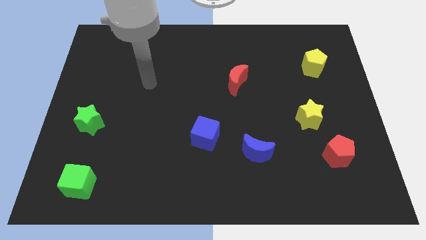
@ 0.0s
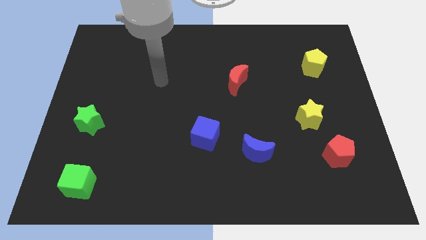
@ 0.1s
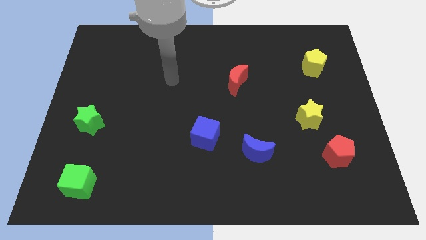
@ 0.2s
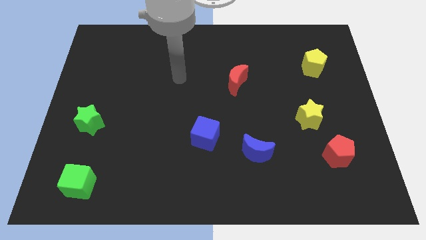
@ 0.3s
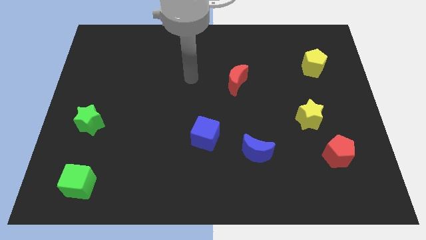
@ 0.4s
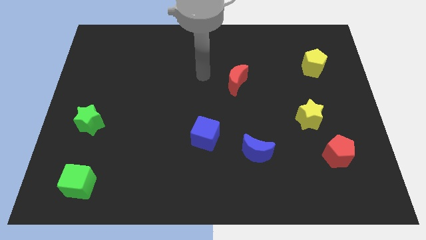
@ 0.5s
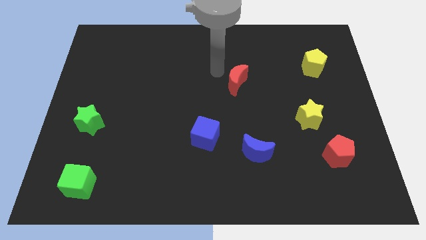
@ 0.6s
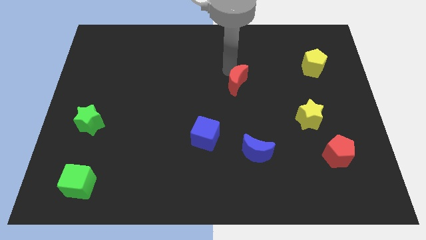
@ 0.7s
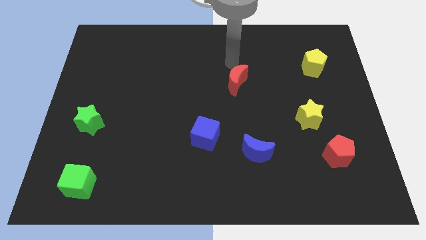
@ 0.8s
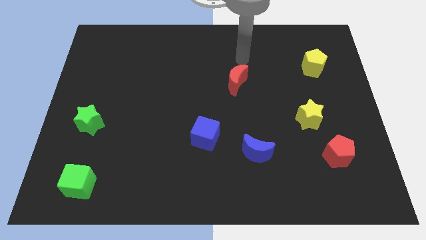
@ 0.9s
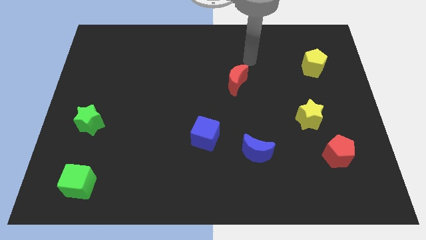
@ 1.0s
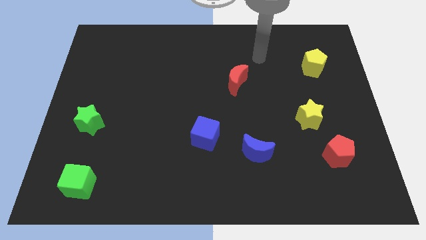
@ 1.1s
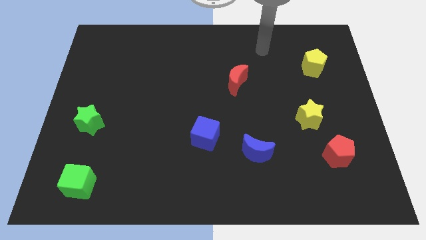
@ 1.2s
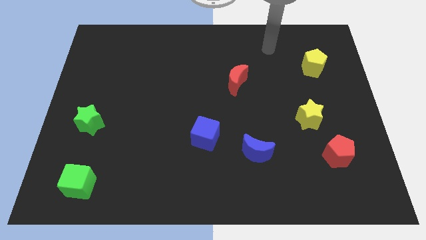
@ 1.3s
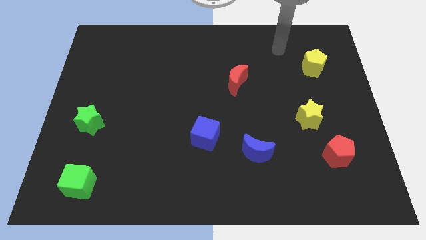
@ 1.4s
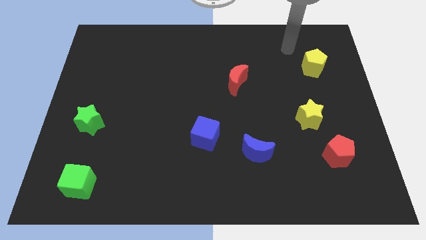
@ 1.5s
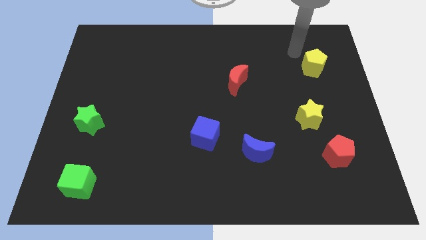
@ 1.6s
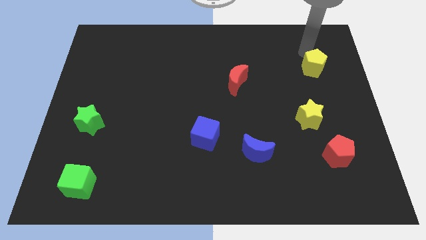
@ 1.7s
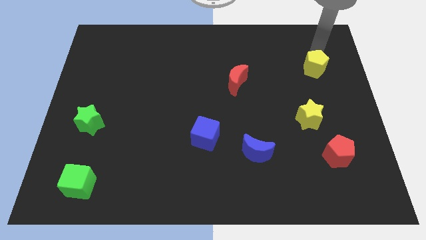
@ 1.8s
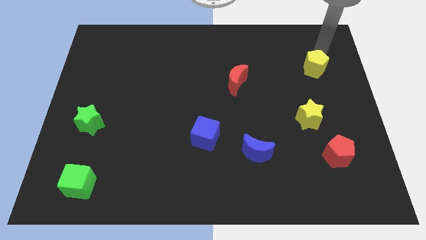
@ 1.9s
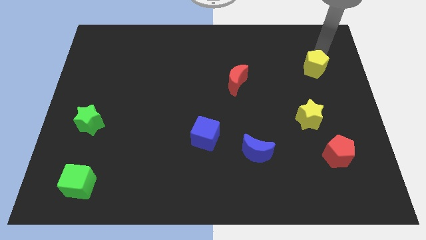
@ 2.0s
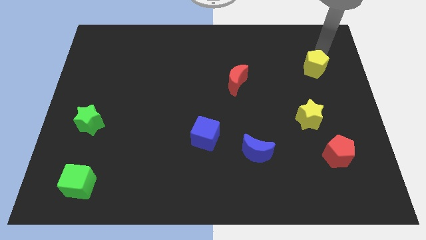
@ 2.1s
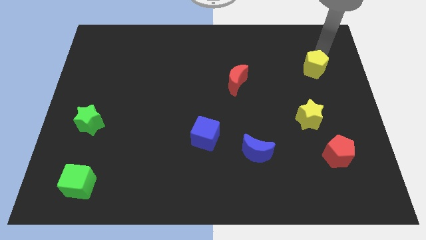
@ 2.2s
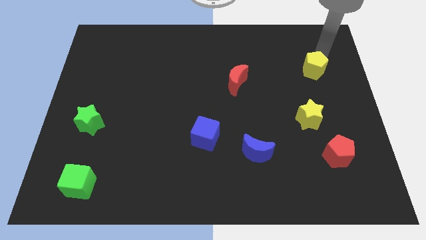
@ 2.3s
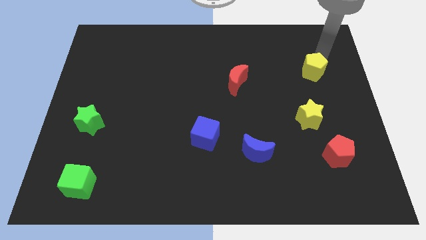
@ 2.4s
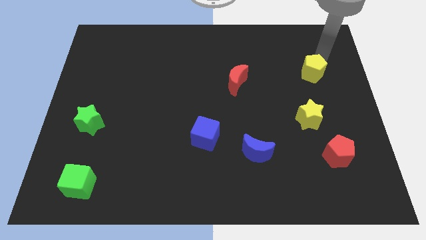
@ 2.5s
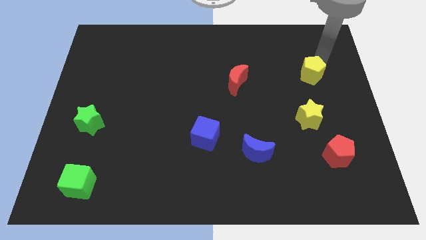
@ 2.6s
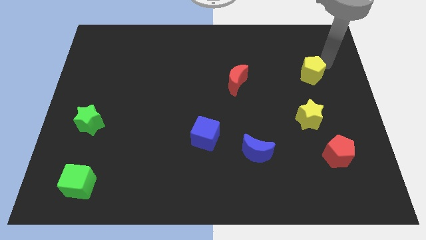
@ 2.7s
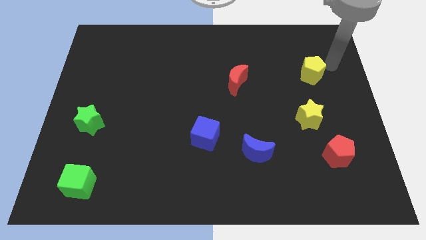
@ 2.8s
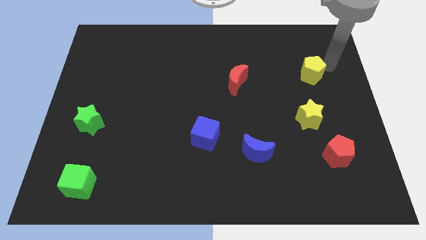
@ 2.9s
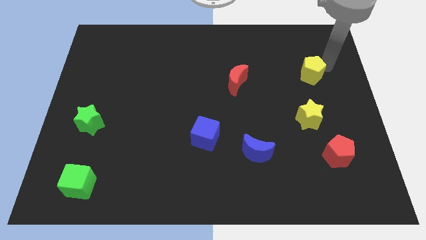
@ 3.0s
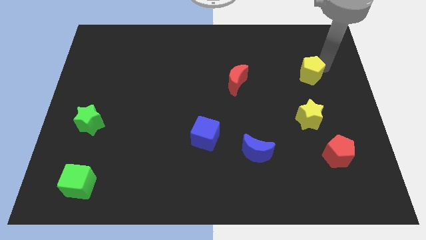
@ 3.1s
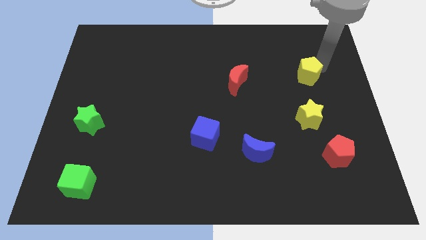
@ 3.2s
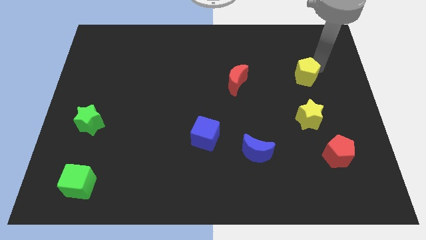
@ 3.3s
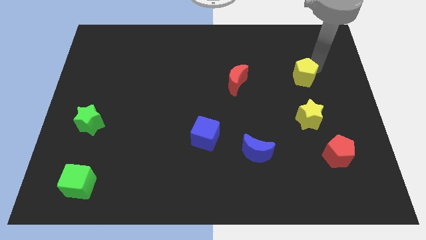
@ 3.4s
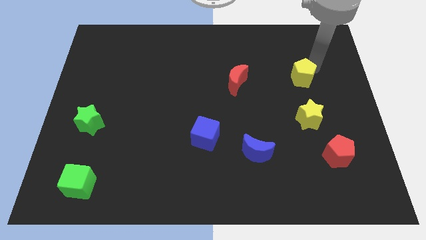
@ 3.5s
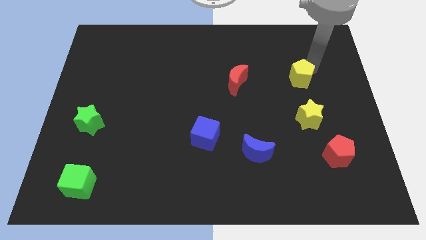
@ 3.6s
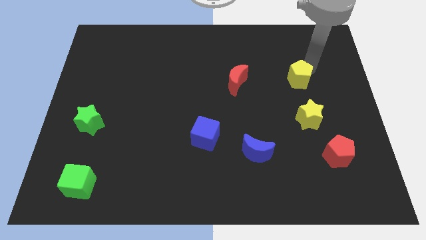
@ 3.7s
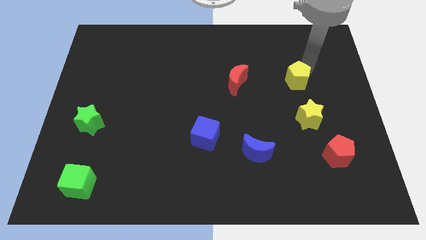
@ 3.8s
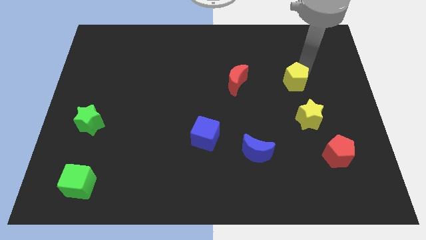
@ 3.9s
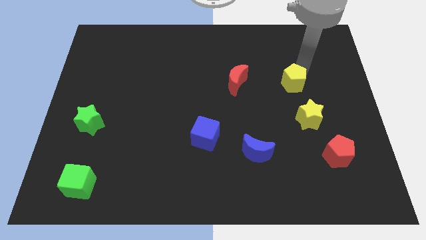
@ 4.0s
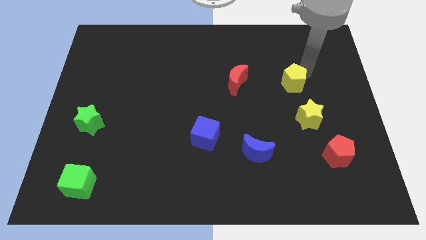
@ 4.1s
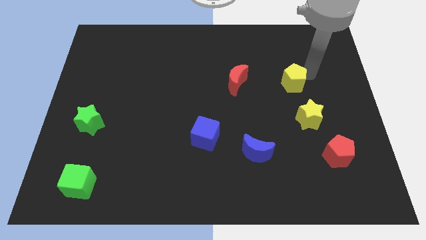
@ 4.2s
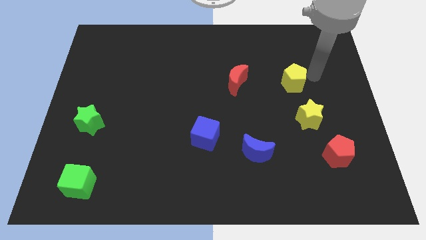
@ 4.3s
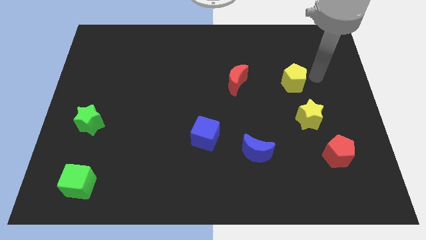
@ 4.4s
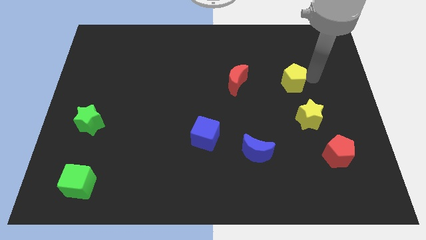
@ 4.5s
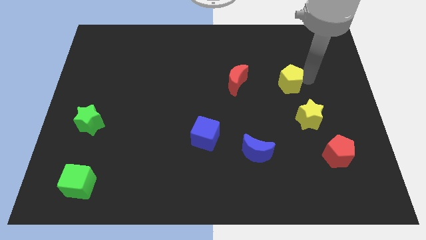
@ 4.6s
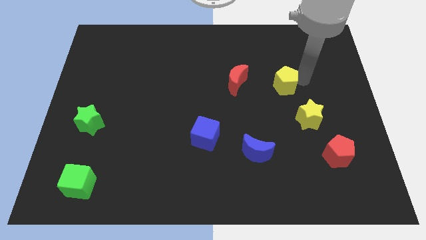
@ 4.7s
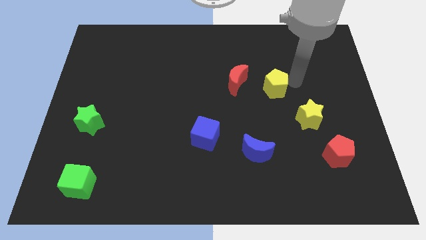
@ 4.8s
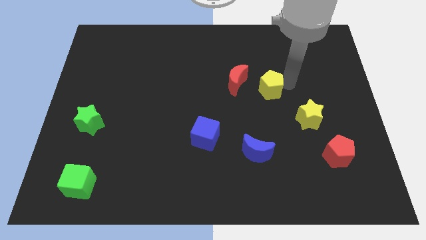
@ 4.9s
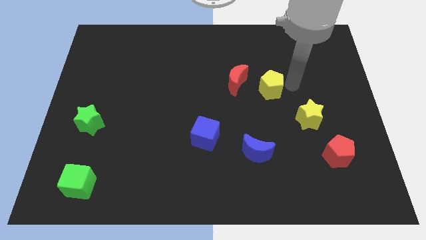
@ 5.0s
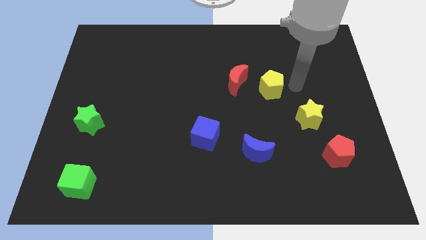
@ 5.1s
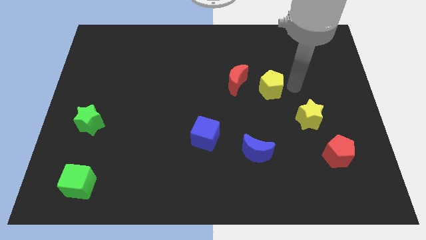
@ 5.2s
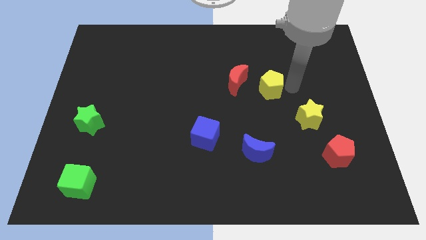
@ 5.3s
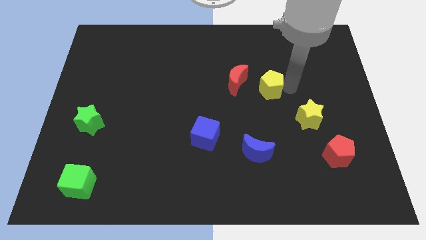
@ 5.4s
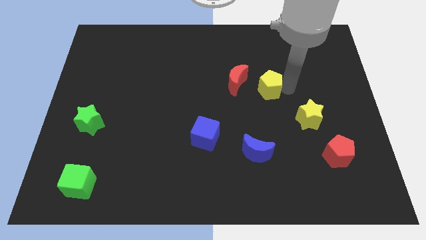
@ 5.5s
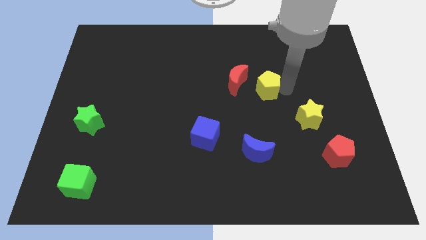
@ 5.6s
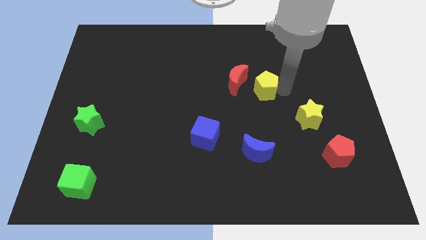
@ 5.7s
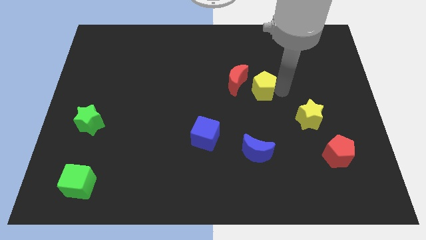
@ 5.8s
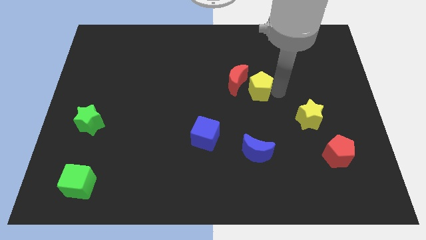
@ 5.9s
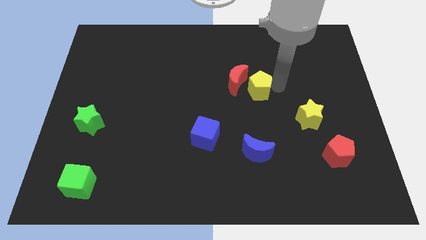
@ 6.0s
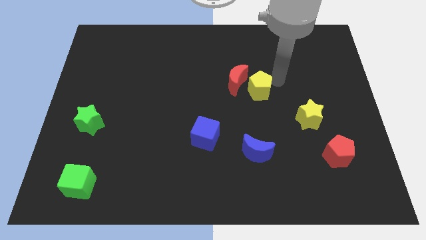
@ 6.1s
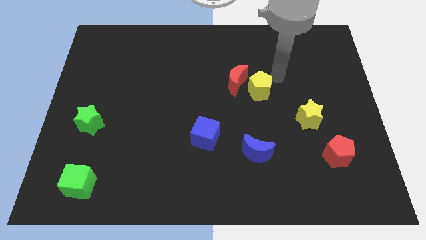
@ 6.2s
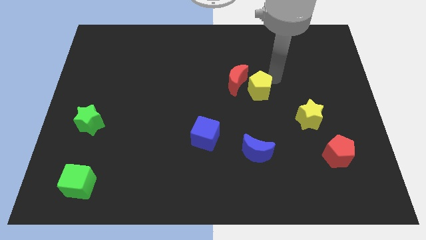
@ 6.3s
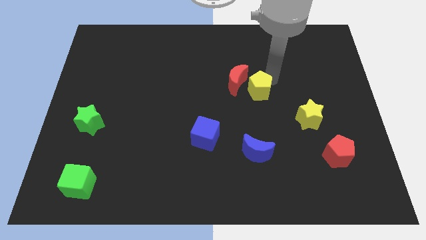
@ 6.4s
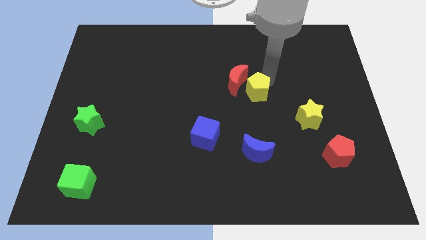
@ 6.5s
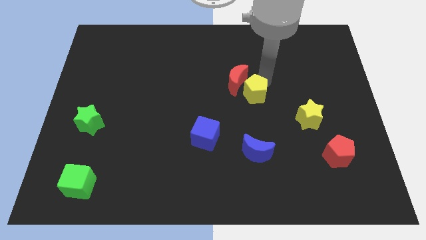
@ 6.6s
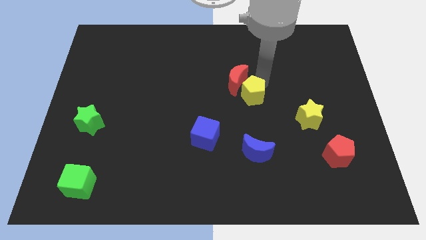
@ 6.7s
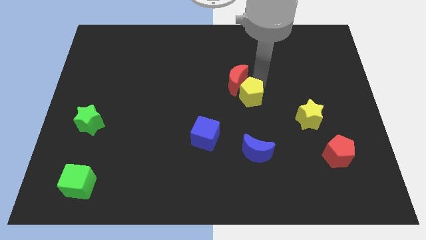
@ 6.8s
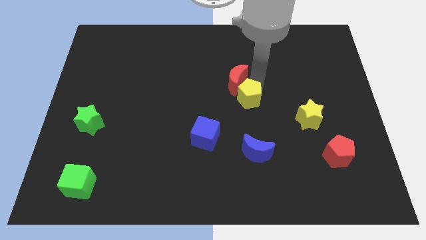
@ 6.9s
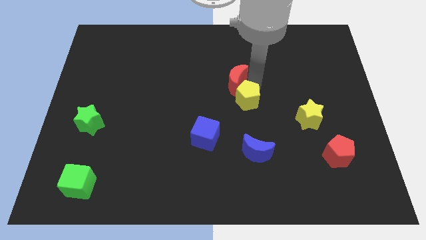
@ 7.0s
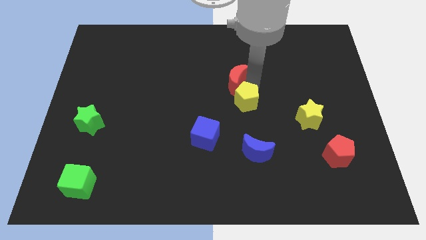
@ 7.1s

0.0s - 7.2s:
push the yellow pentagon downwards and then to the left

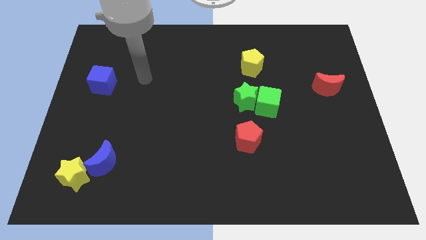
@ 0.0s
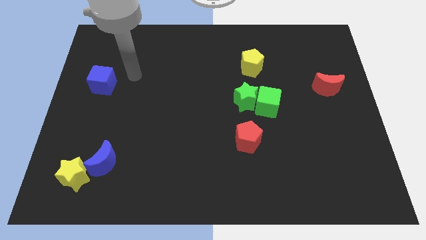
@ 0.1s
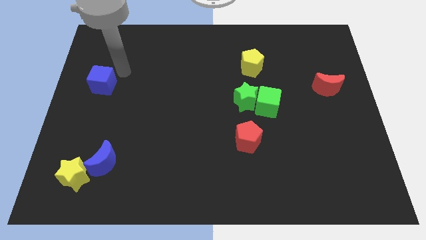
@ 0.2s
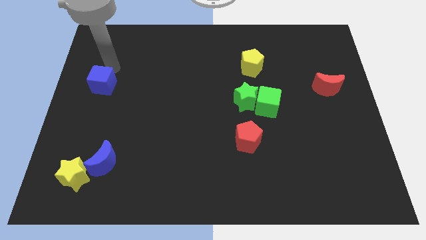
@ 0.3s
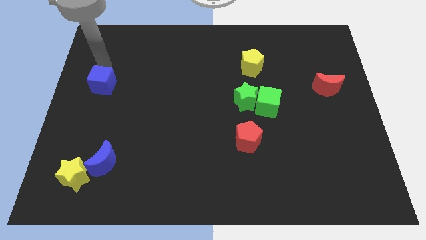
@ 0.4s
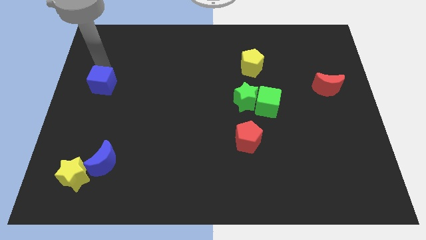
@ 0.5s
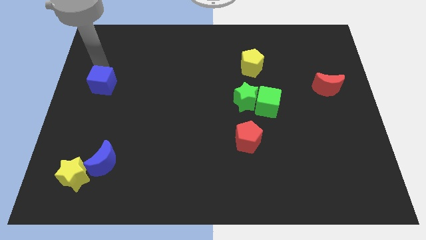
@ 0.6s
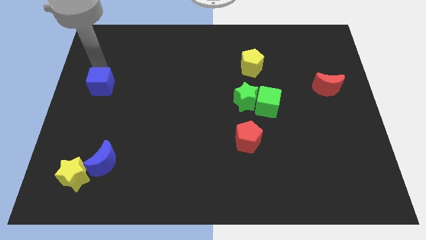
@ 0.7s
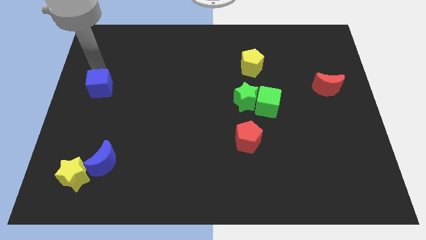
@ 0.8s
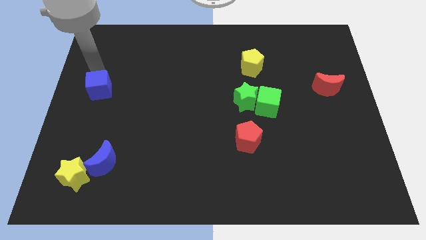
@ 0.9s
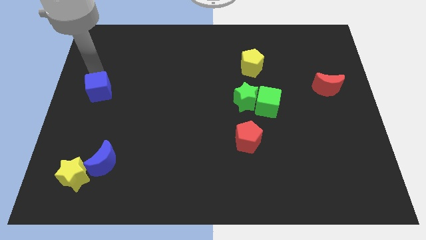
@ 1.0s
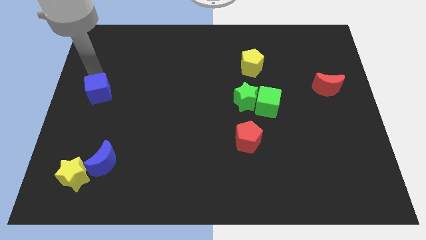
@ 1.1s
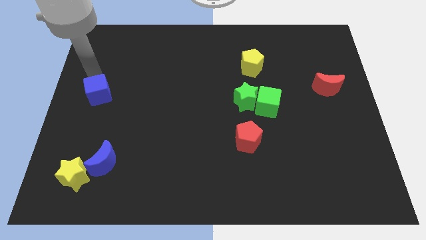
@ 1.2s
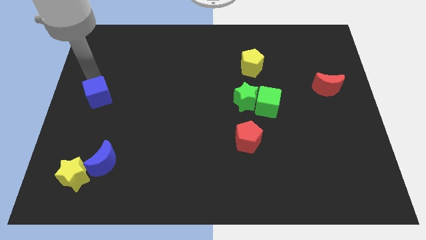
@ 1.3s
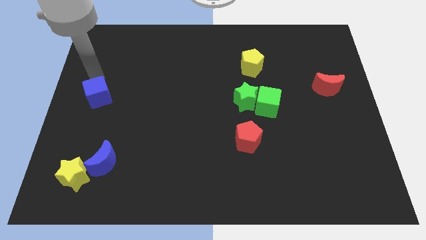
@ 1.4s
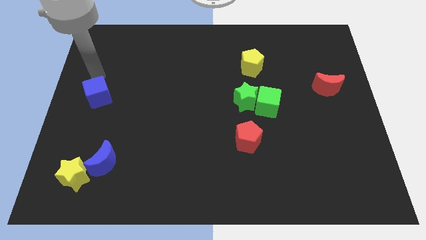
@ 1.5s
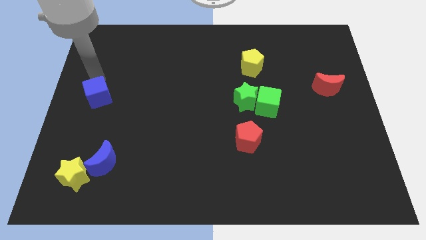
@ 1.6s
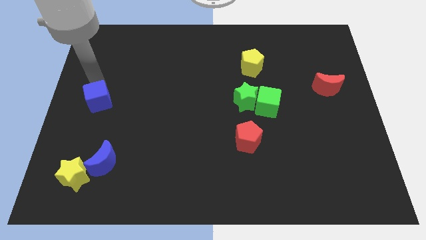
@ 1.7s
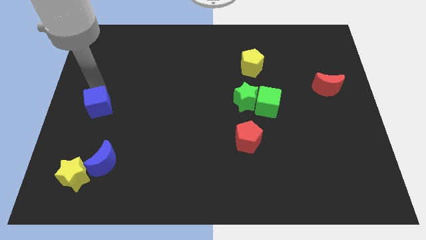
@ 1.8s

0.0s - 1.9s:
slide the blue cube somewhat downwards
